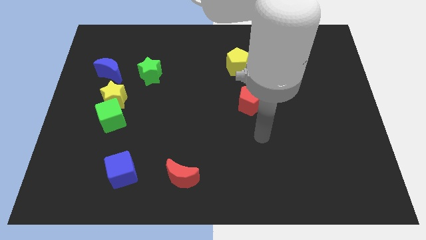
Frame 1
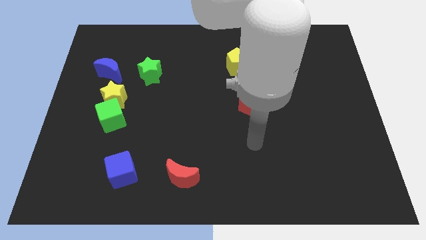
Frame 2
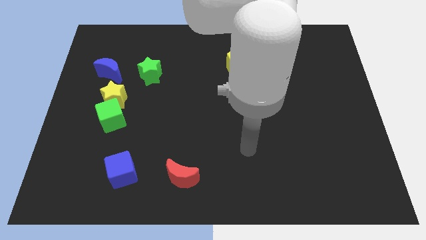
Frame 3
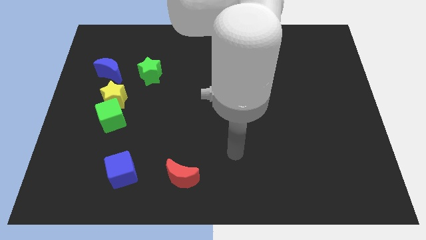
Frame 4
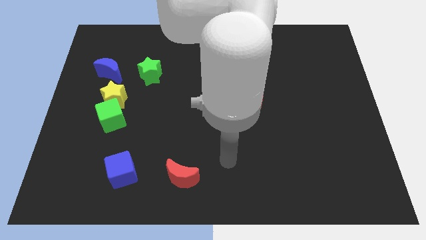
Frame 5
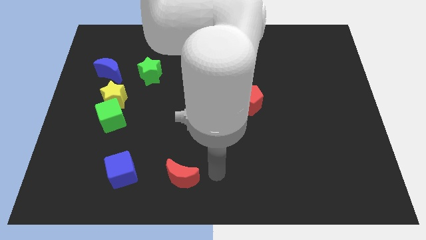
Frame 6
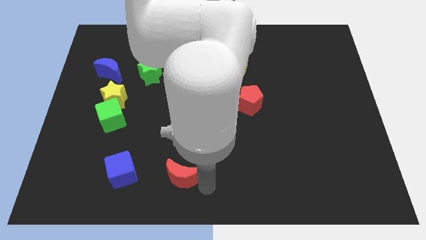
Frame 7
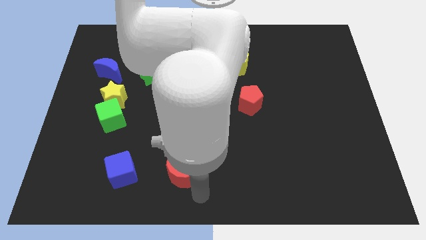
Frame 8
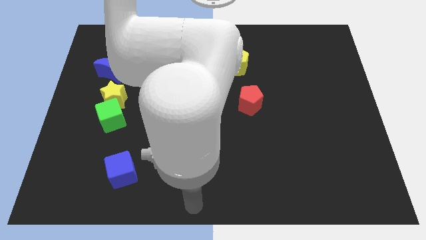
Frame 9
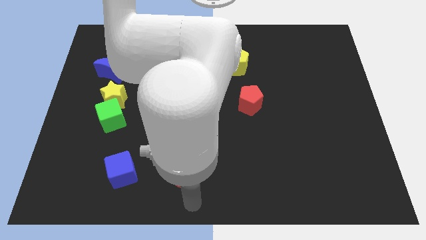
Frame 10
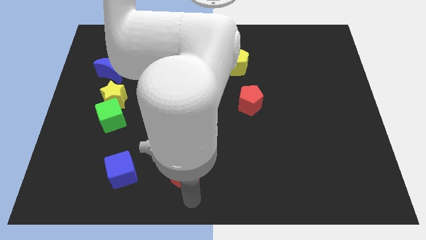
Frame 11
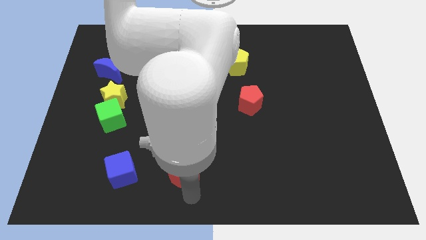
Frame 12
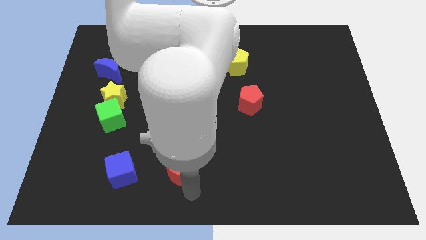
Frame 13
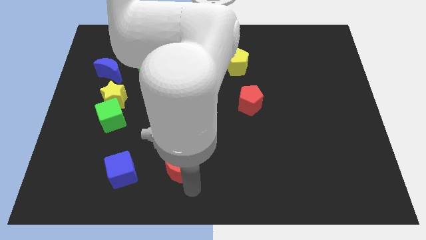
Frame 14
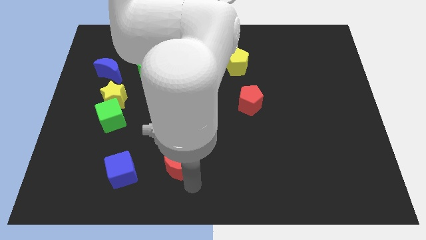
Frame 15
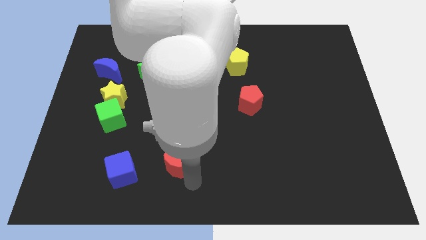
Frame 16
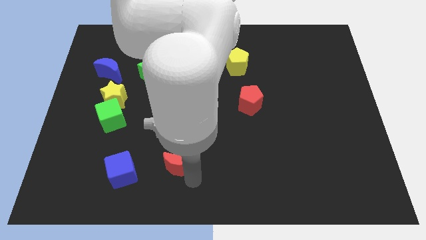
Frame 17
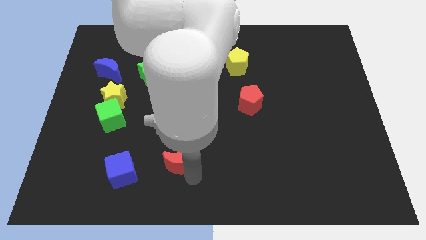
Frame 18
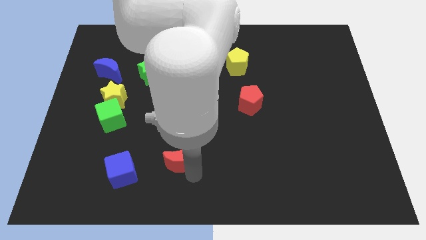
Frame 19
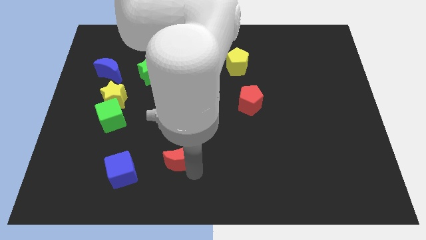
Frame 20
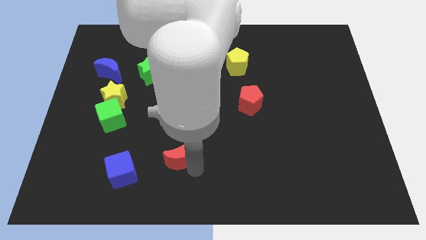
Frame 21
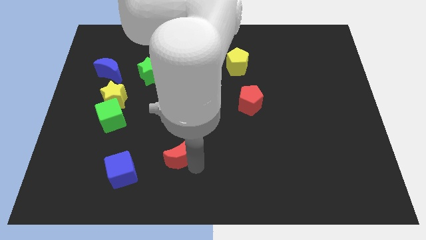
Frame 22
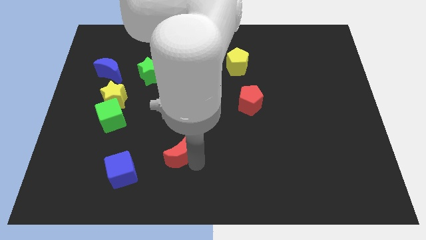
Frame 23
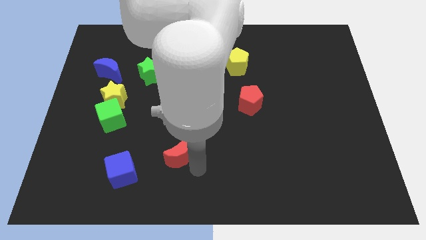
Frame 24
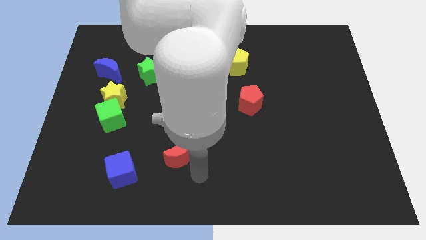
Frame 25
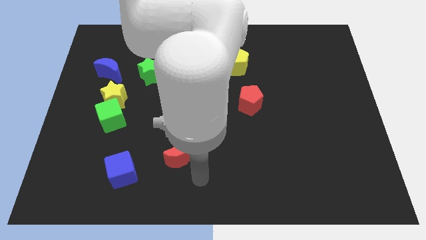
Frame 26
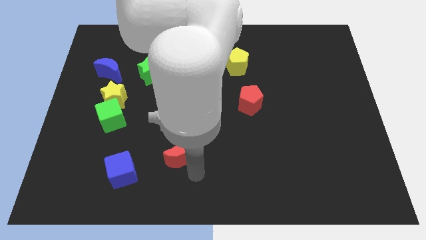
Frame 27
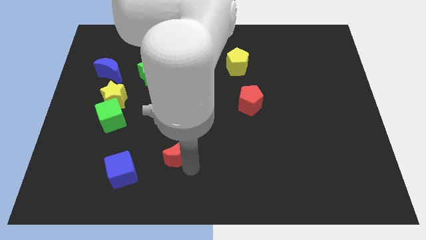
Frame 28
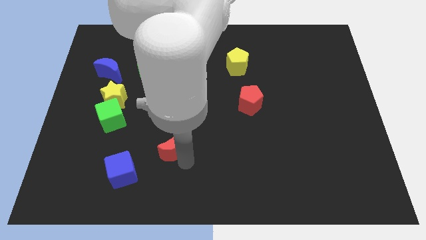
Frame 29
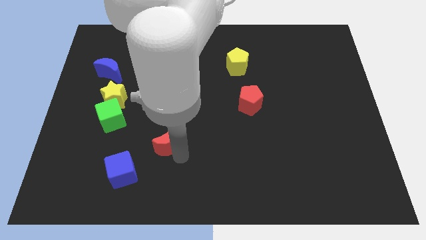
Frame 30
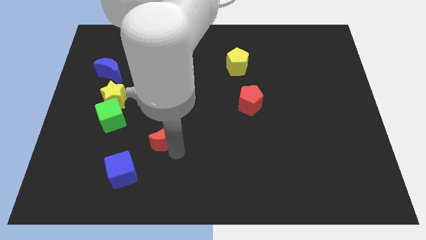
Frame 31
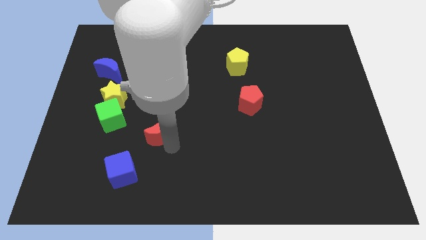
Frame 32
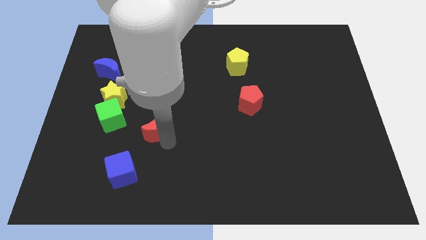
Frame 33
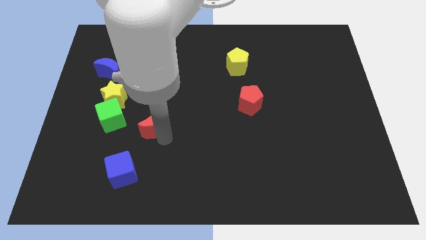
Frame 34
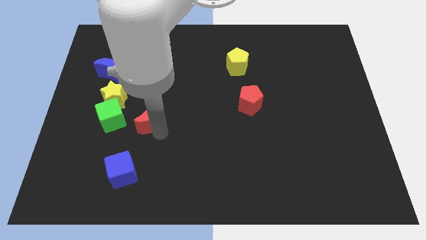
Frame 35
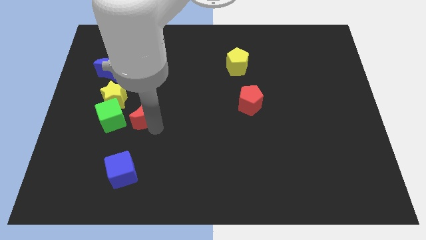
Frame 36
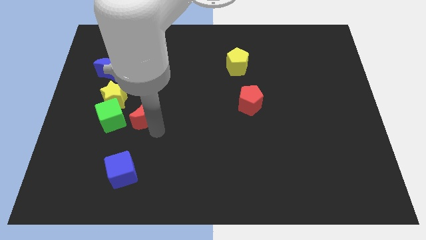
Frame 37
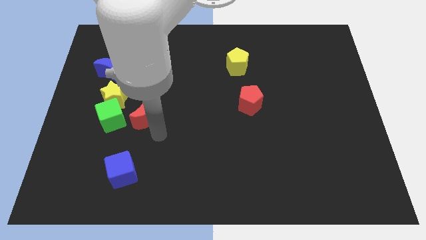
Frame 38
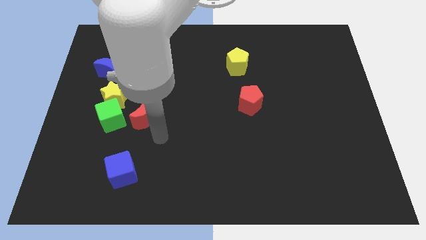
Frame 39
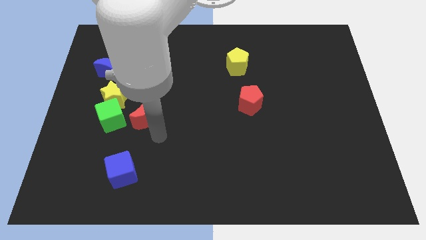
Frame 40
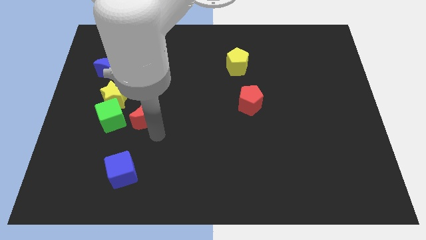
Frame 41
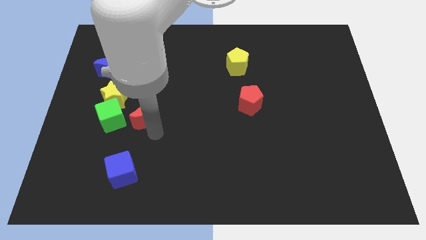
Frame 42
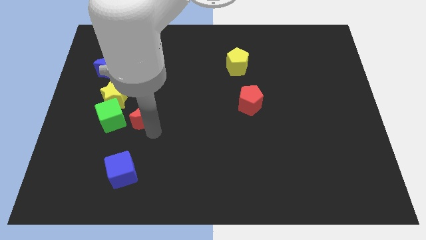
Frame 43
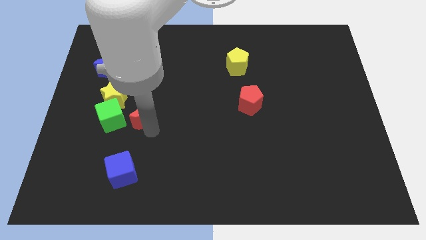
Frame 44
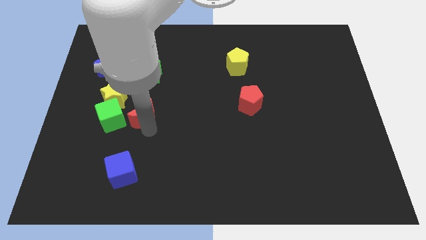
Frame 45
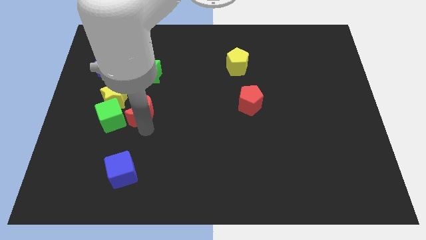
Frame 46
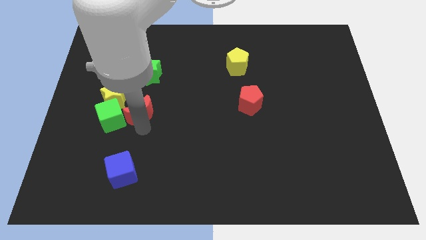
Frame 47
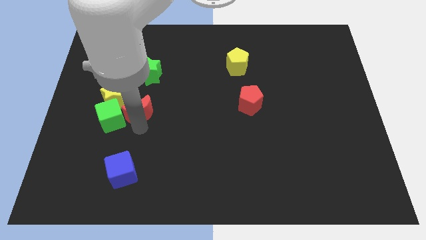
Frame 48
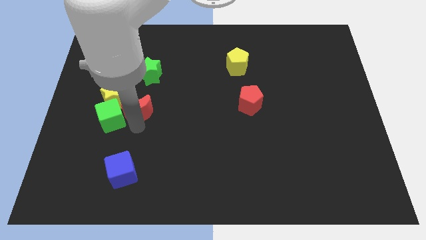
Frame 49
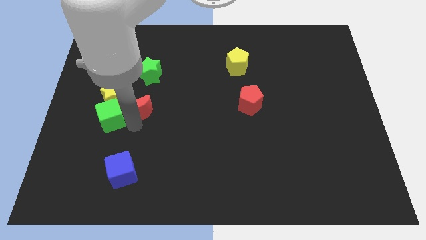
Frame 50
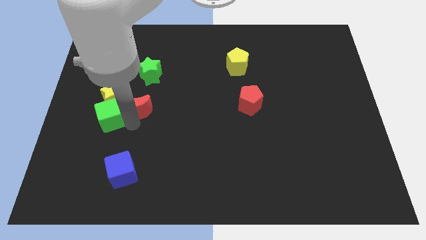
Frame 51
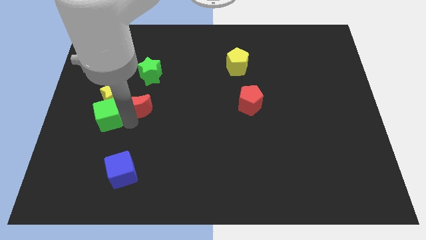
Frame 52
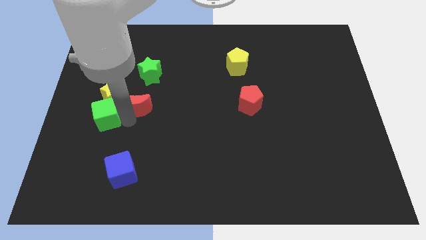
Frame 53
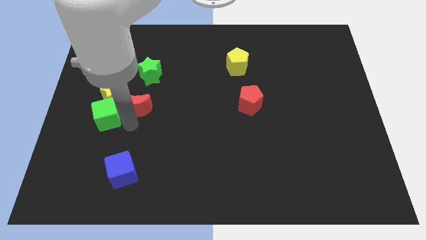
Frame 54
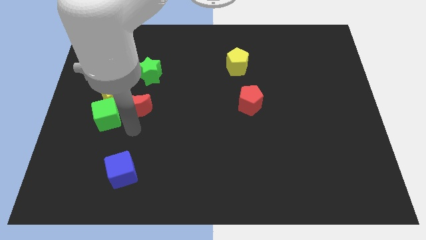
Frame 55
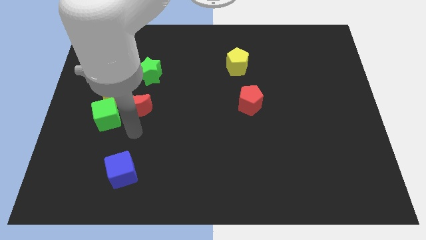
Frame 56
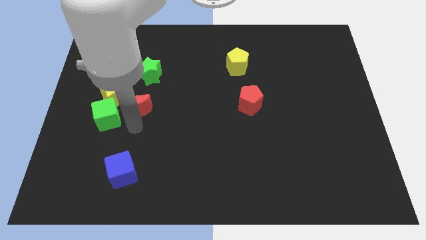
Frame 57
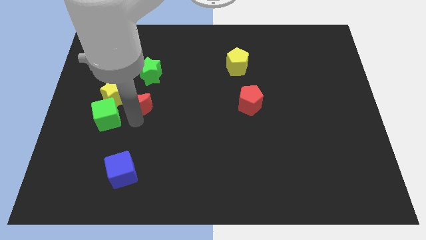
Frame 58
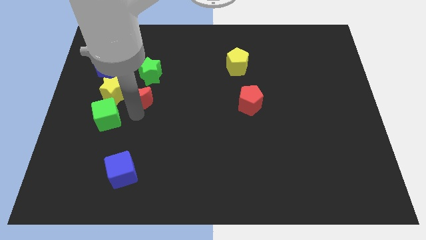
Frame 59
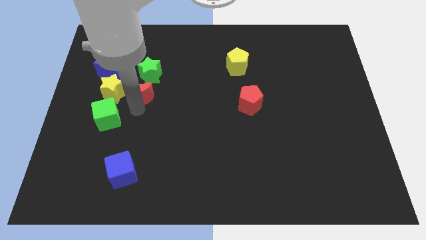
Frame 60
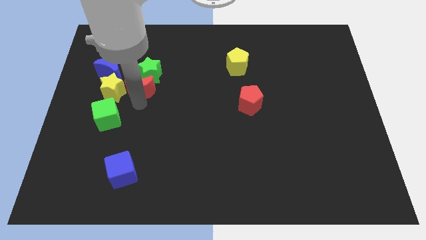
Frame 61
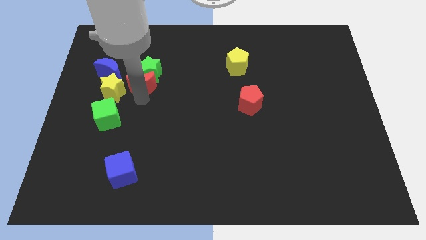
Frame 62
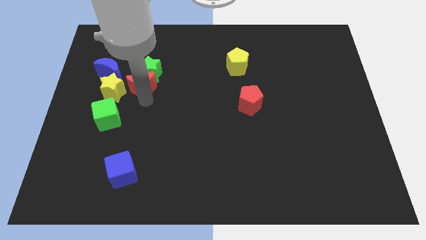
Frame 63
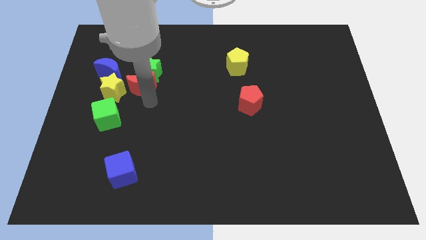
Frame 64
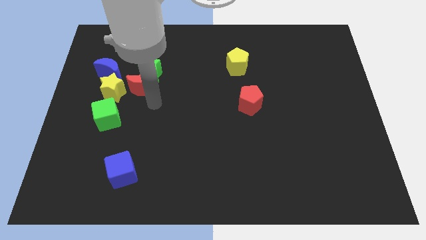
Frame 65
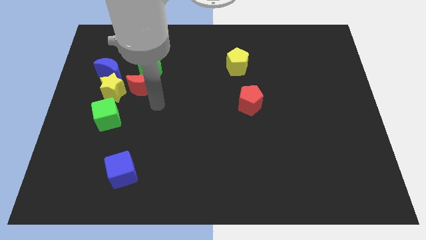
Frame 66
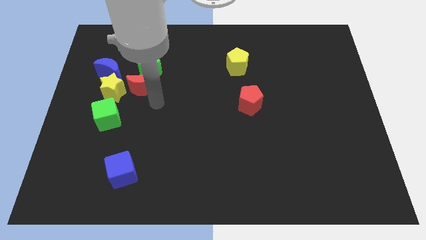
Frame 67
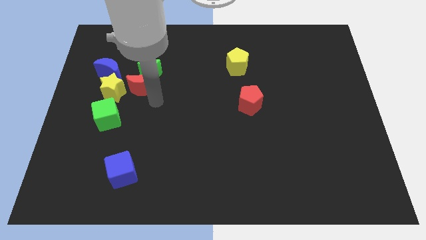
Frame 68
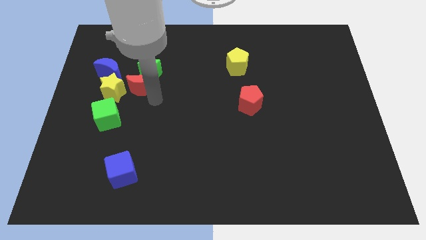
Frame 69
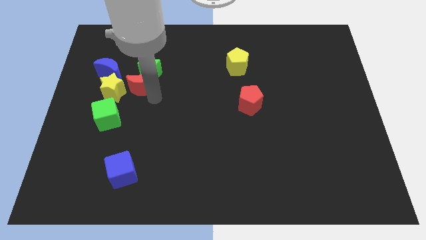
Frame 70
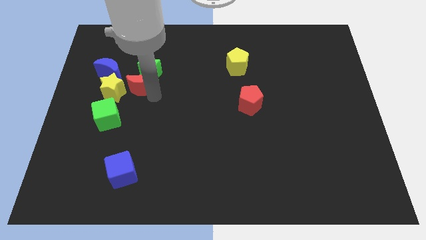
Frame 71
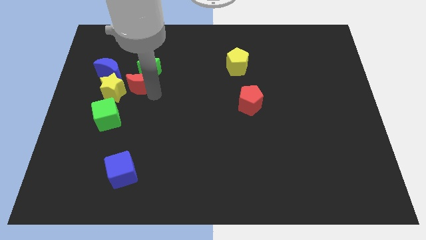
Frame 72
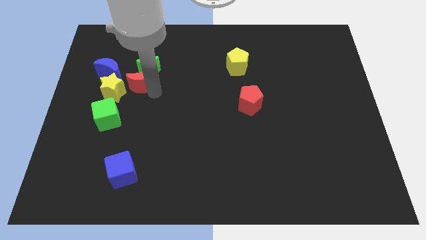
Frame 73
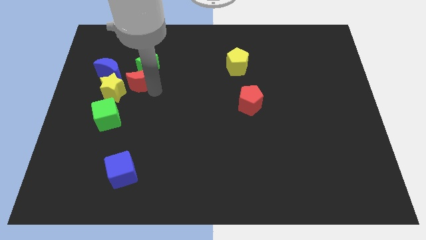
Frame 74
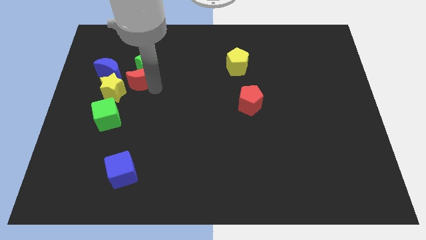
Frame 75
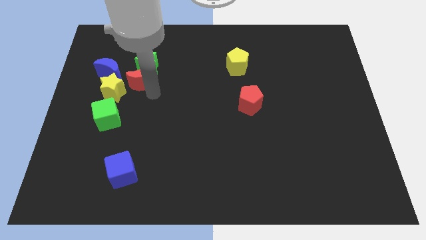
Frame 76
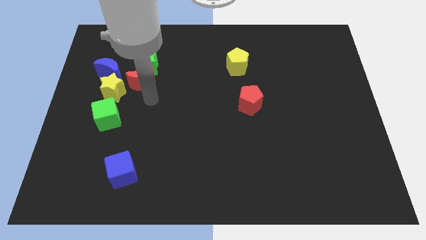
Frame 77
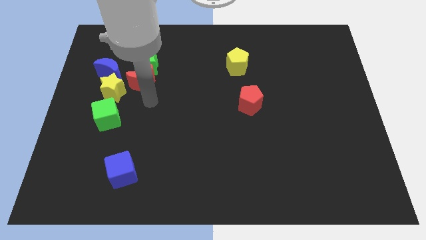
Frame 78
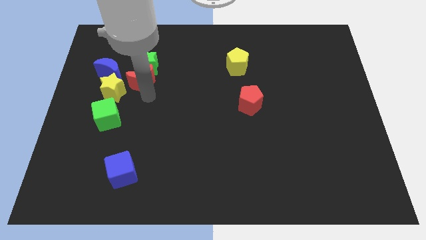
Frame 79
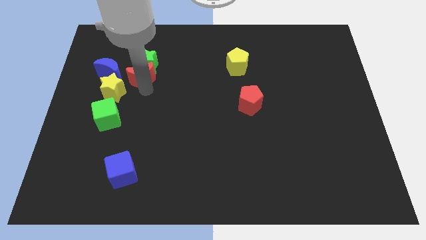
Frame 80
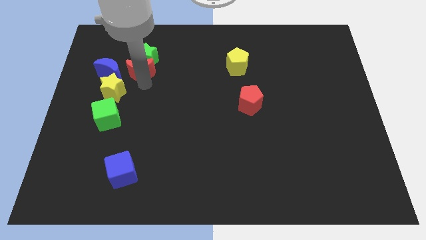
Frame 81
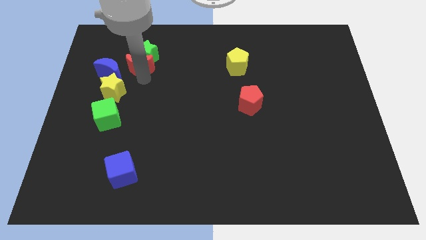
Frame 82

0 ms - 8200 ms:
slide the red moon diagonally up and to the right of the blue moon
